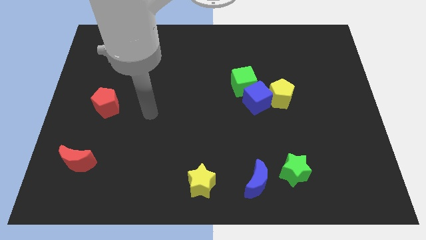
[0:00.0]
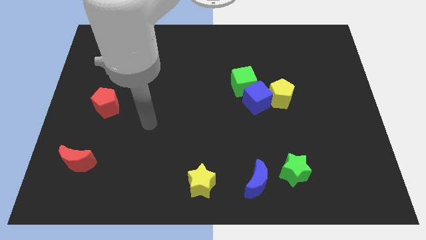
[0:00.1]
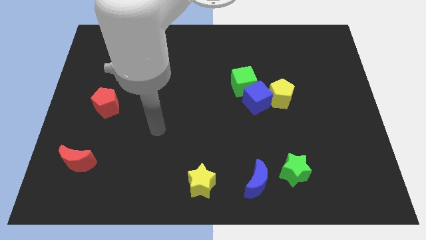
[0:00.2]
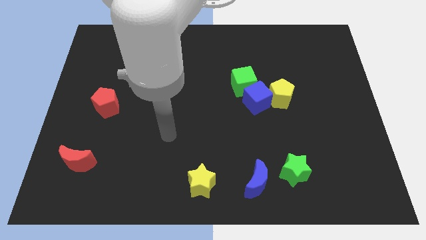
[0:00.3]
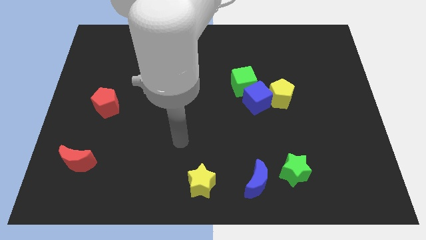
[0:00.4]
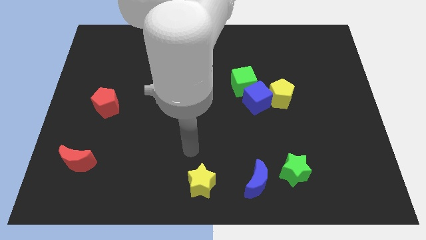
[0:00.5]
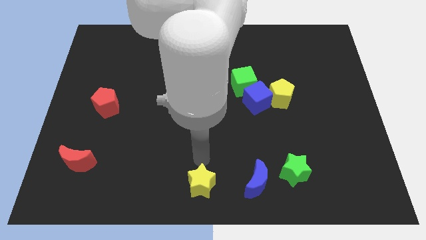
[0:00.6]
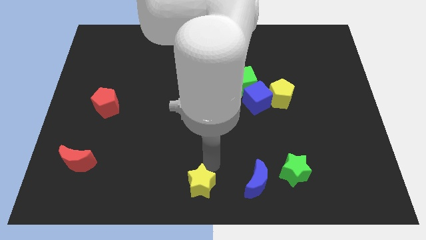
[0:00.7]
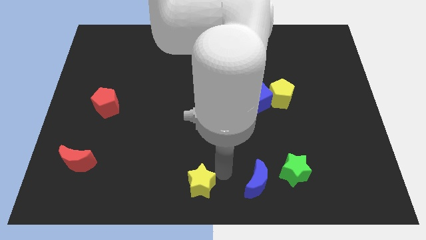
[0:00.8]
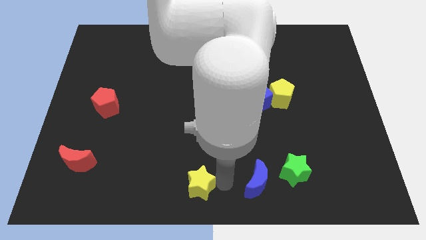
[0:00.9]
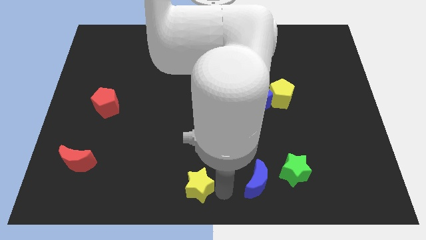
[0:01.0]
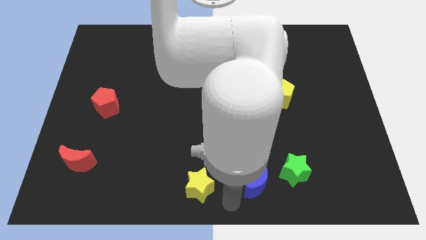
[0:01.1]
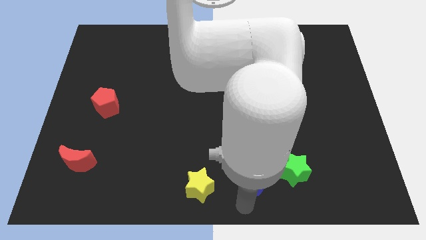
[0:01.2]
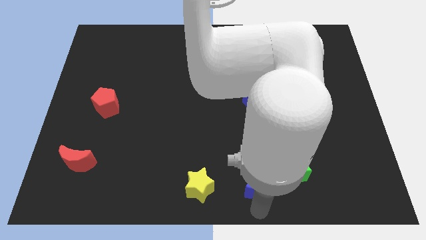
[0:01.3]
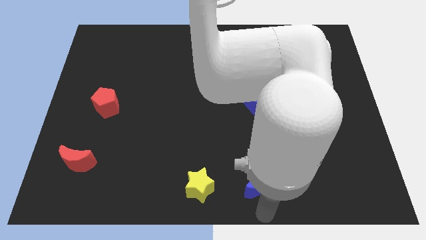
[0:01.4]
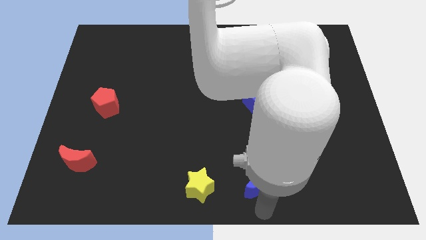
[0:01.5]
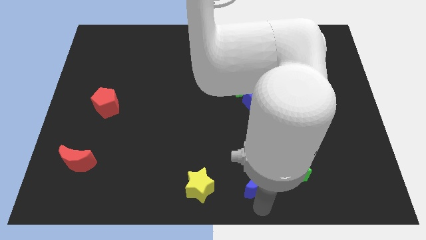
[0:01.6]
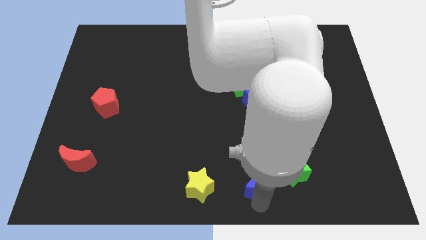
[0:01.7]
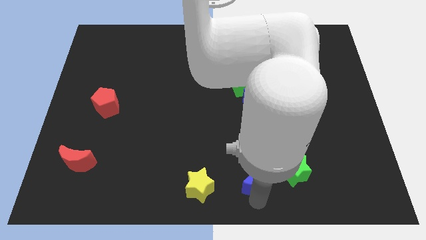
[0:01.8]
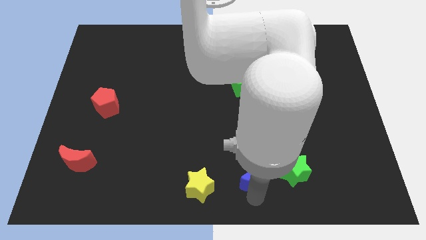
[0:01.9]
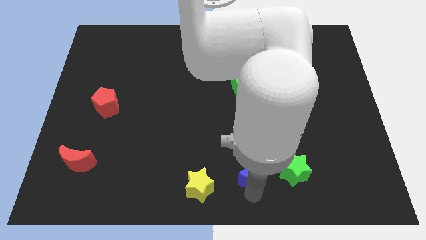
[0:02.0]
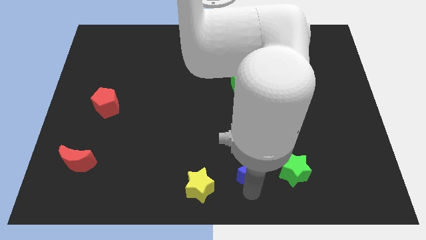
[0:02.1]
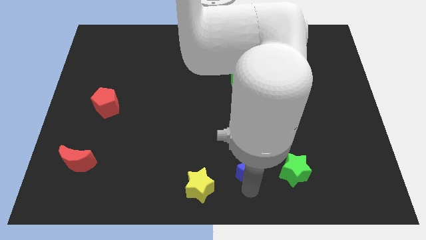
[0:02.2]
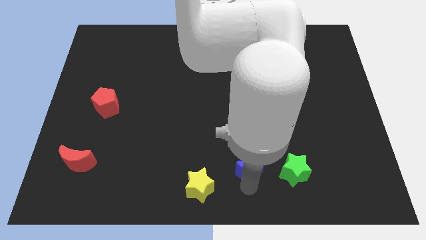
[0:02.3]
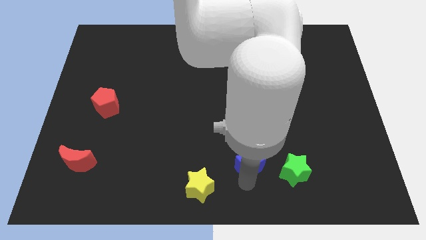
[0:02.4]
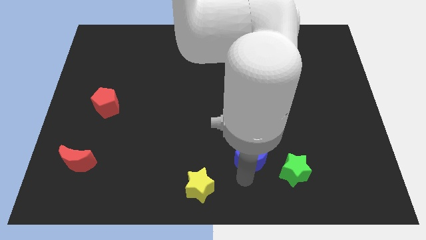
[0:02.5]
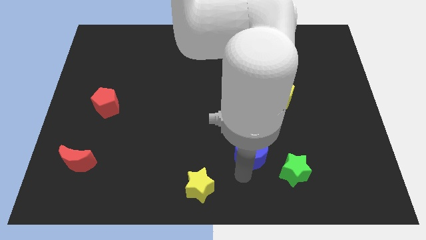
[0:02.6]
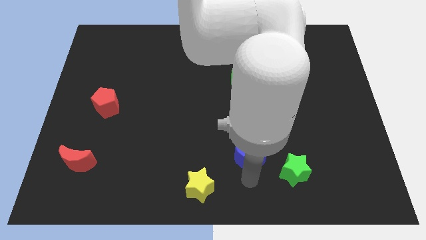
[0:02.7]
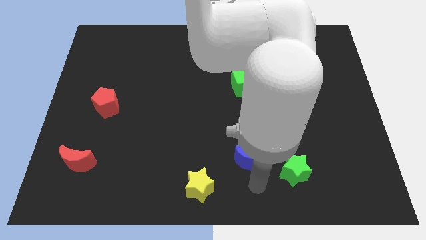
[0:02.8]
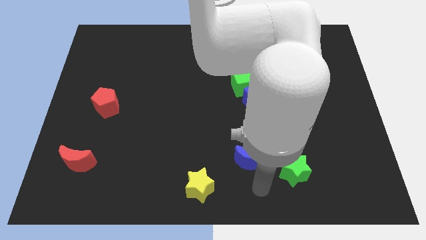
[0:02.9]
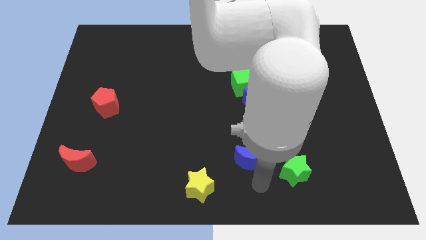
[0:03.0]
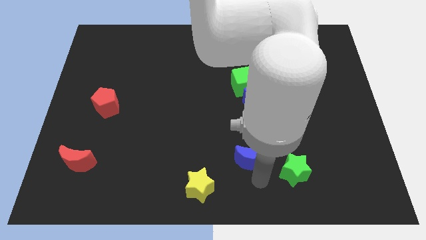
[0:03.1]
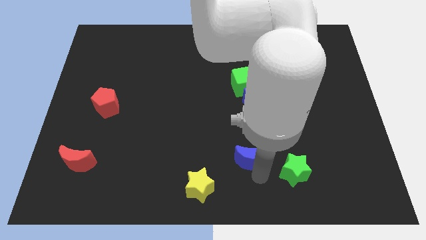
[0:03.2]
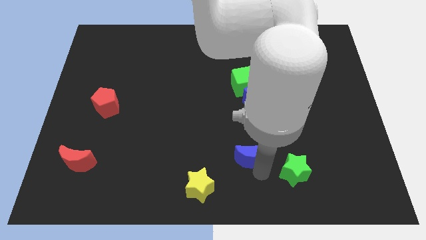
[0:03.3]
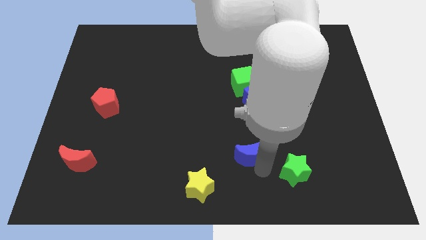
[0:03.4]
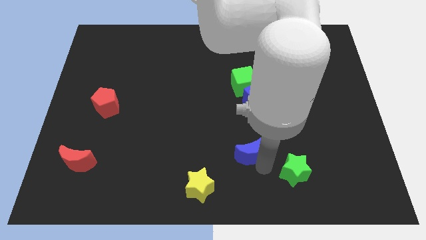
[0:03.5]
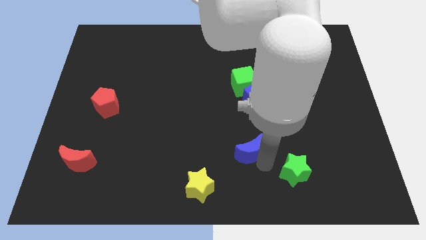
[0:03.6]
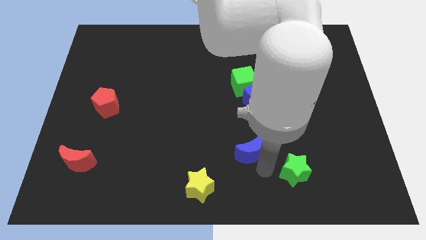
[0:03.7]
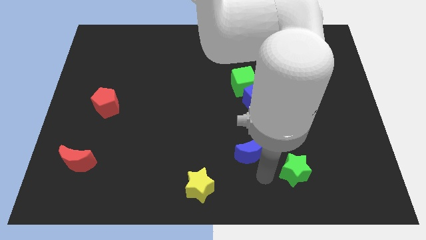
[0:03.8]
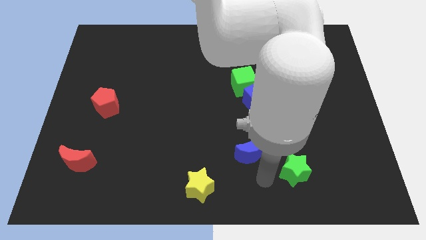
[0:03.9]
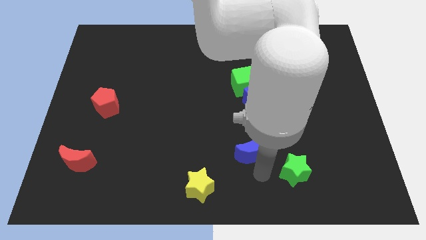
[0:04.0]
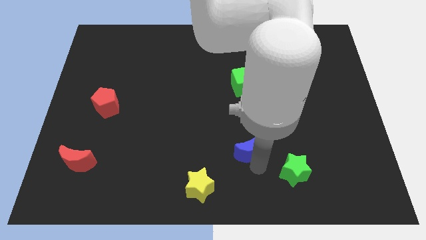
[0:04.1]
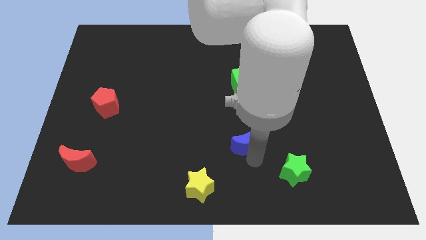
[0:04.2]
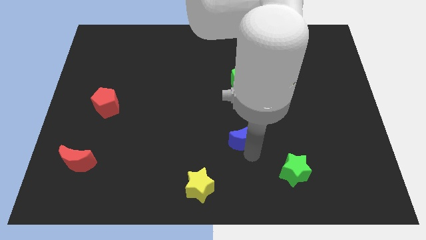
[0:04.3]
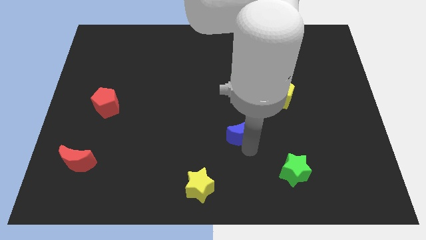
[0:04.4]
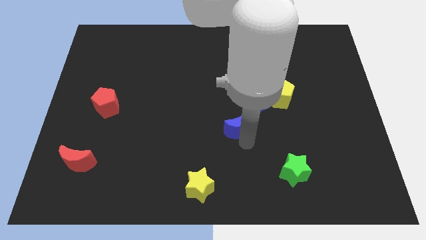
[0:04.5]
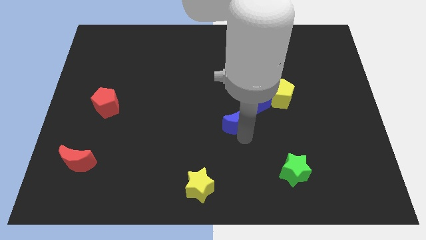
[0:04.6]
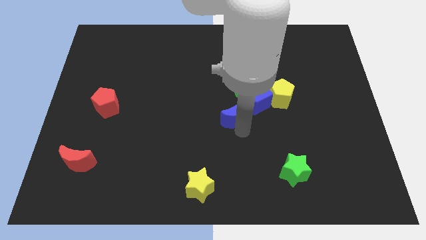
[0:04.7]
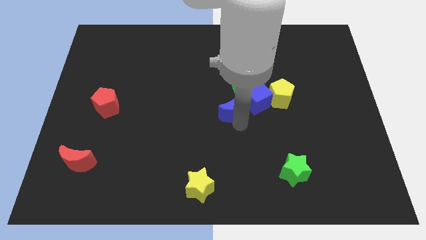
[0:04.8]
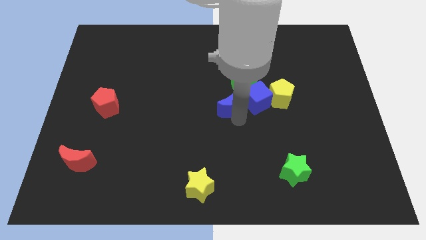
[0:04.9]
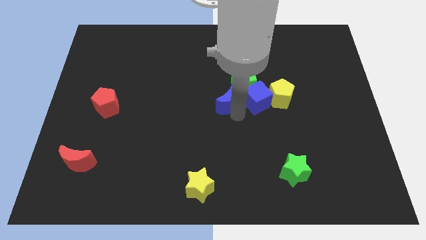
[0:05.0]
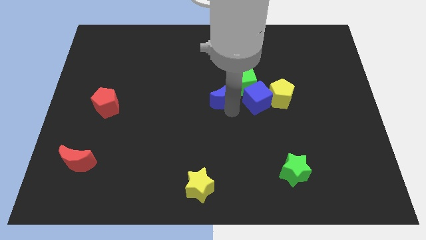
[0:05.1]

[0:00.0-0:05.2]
push the blue moon to the top left of the blue cube

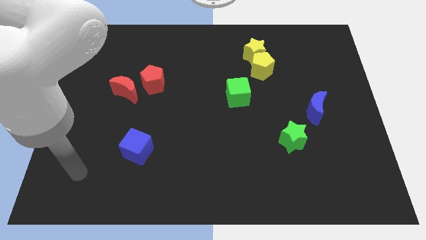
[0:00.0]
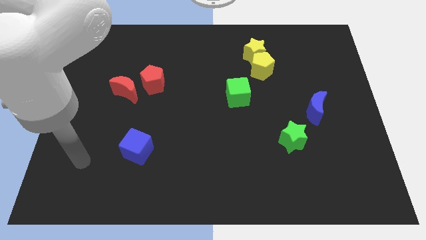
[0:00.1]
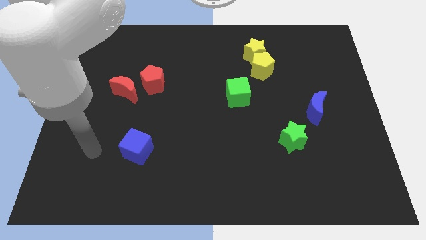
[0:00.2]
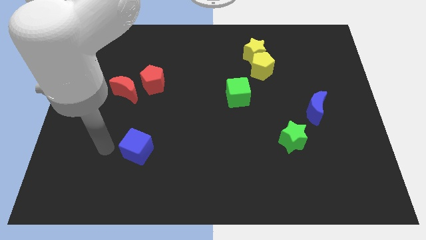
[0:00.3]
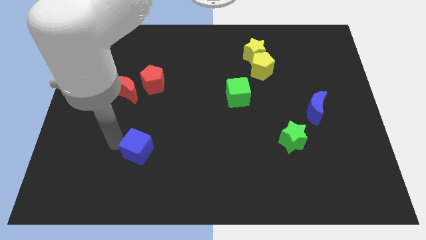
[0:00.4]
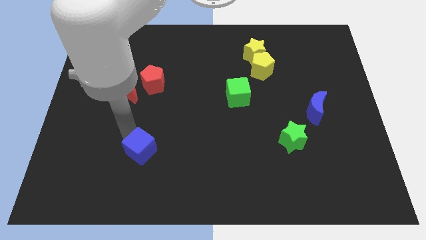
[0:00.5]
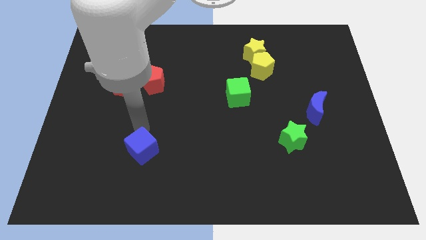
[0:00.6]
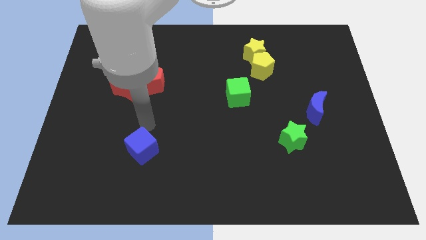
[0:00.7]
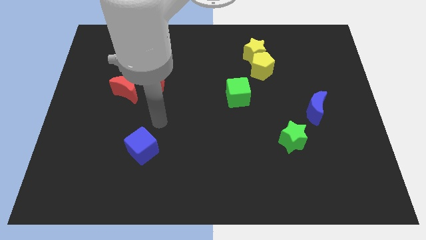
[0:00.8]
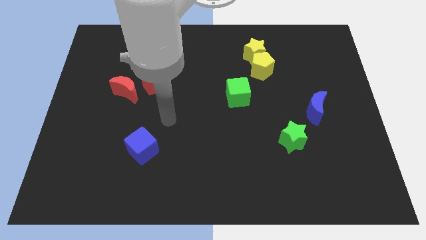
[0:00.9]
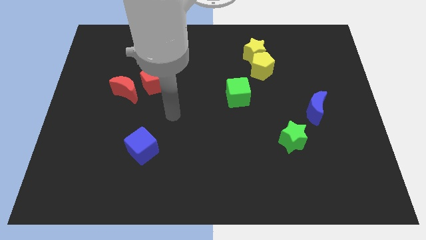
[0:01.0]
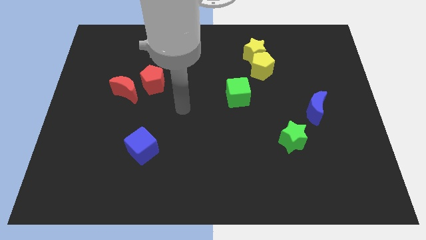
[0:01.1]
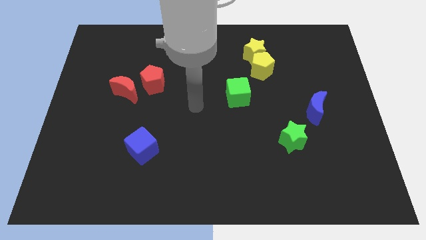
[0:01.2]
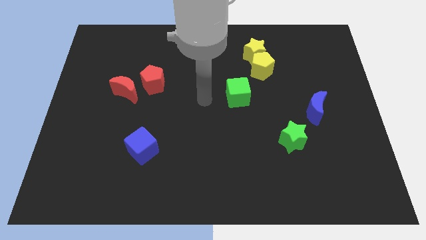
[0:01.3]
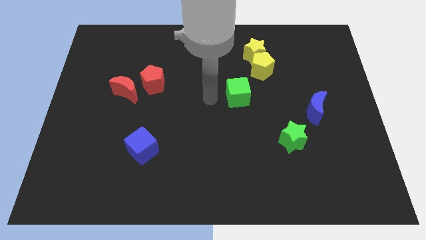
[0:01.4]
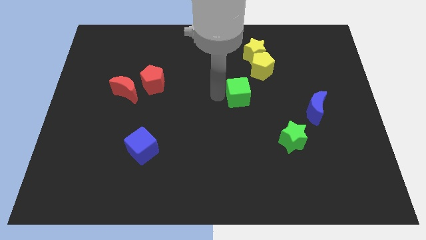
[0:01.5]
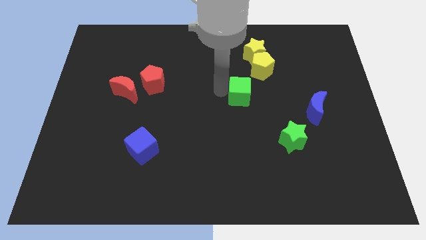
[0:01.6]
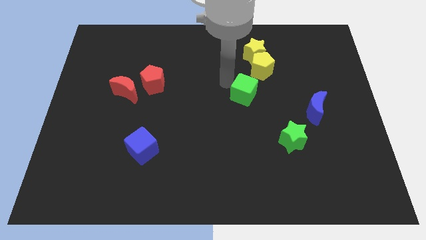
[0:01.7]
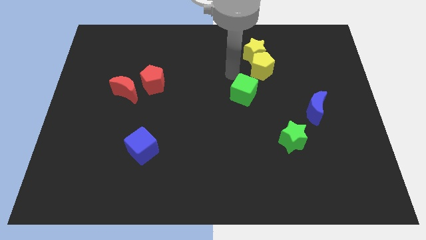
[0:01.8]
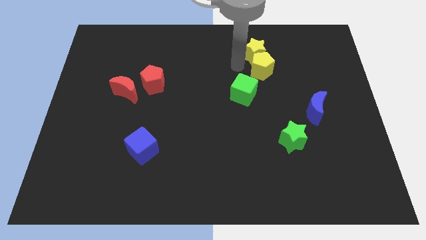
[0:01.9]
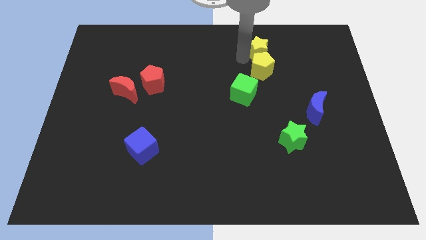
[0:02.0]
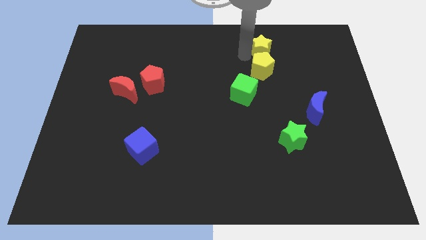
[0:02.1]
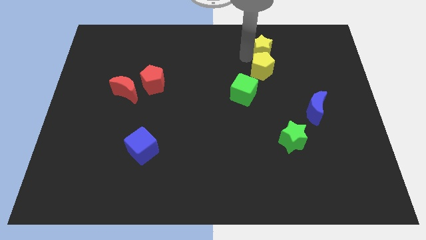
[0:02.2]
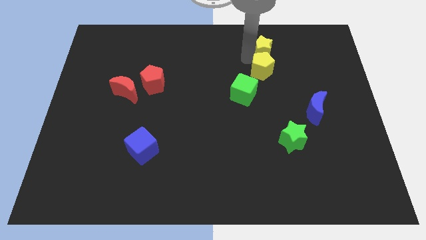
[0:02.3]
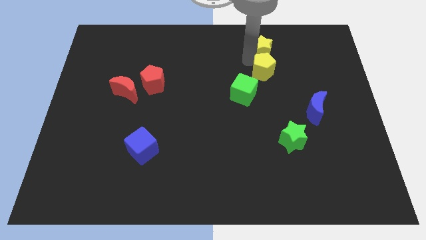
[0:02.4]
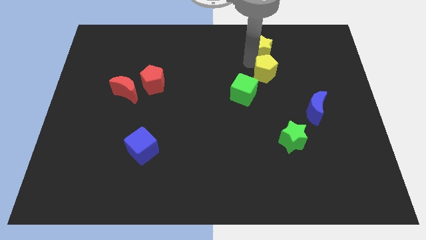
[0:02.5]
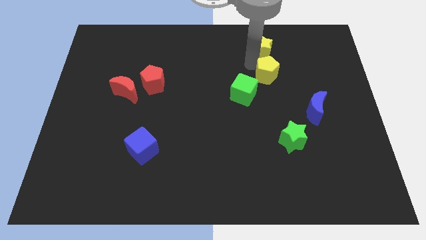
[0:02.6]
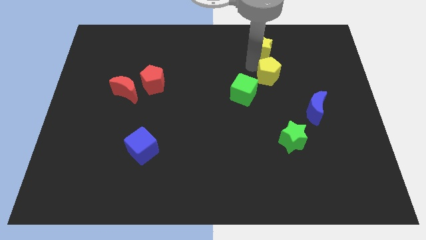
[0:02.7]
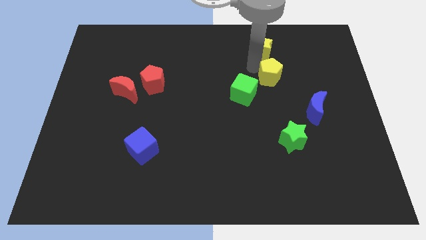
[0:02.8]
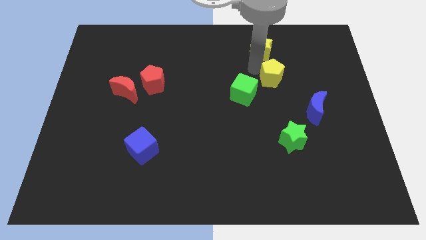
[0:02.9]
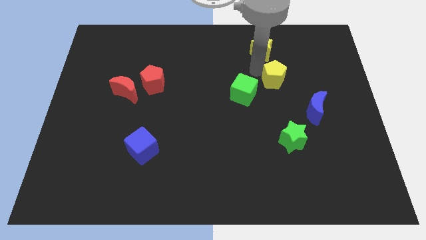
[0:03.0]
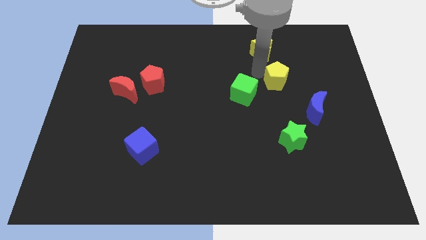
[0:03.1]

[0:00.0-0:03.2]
slide the yellow pentagon to the top left of the blue moon
